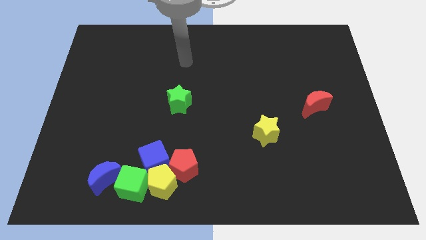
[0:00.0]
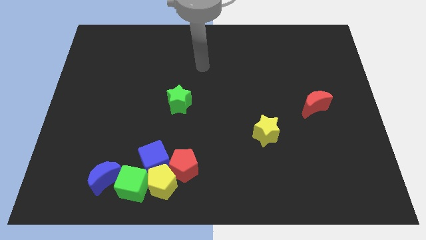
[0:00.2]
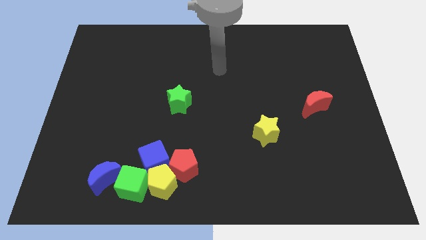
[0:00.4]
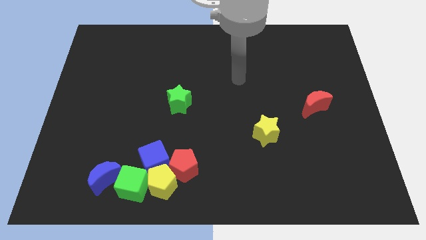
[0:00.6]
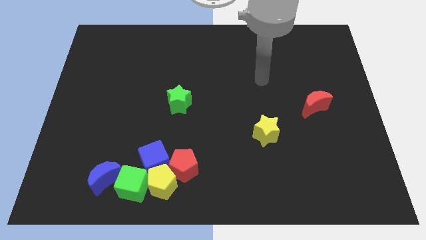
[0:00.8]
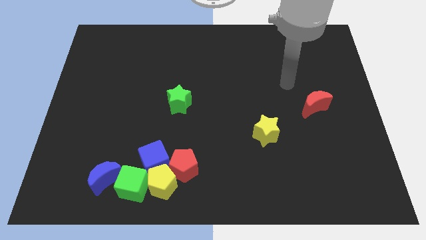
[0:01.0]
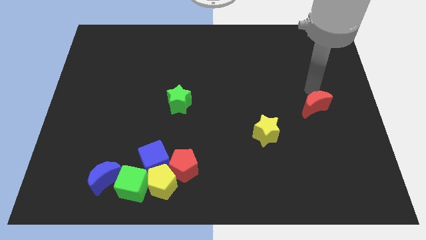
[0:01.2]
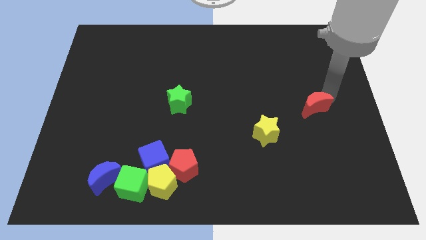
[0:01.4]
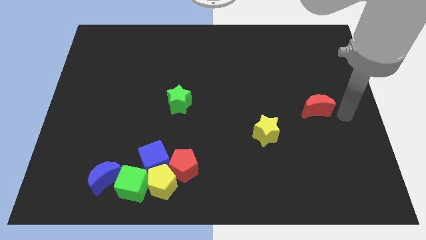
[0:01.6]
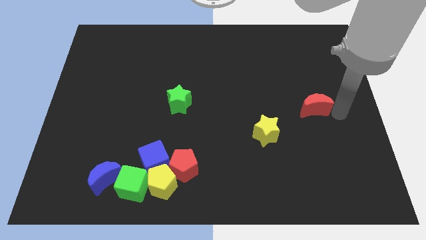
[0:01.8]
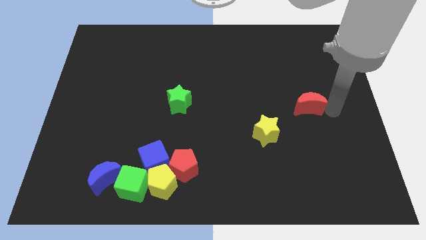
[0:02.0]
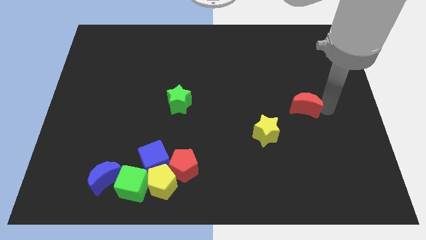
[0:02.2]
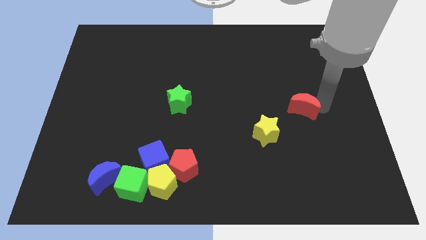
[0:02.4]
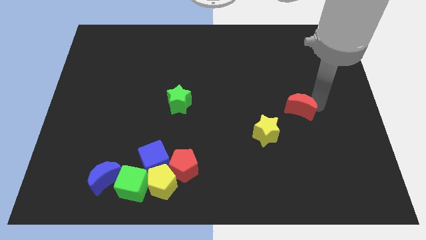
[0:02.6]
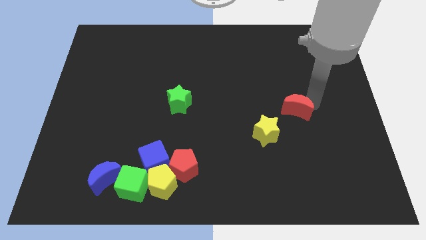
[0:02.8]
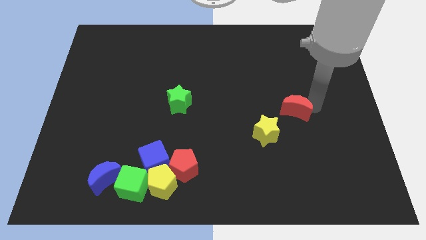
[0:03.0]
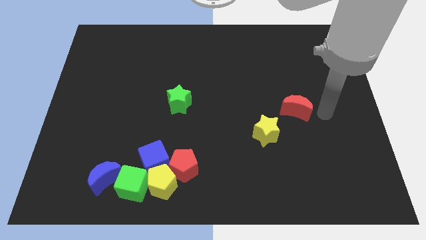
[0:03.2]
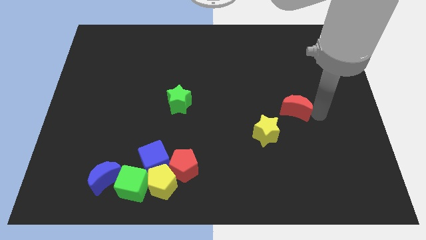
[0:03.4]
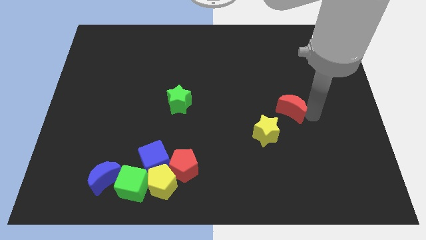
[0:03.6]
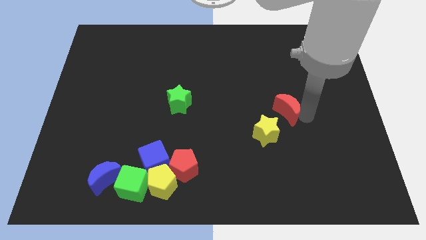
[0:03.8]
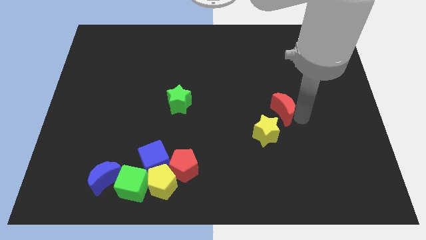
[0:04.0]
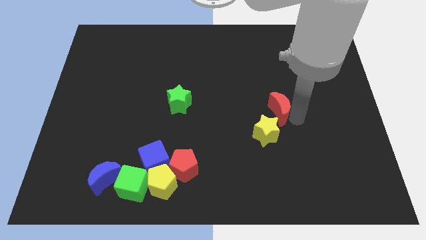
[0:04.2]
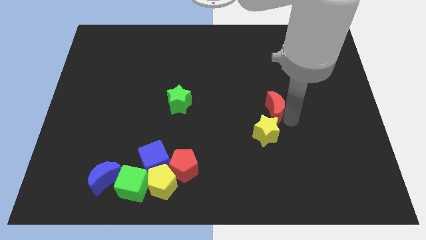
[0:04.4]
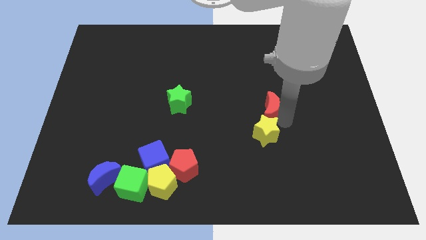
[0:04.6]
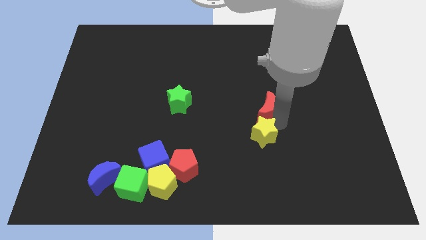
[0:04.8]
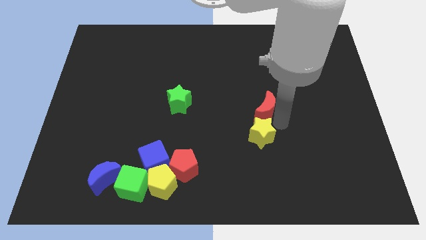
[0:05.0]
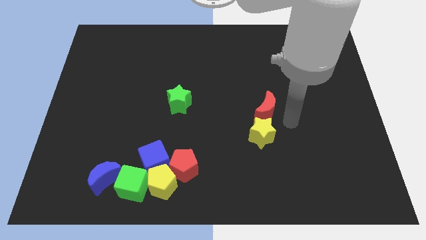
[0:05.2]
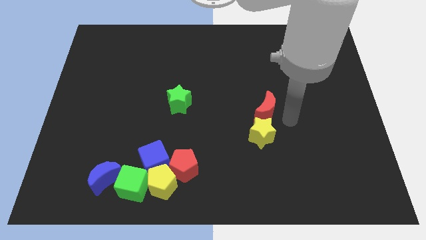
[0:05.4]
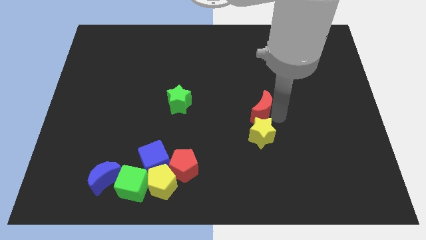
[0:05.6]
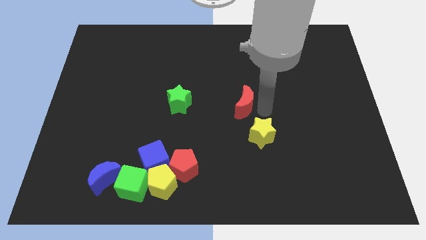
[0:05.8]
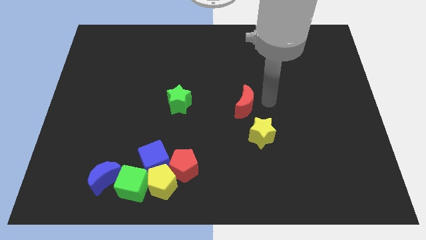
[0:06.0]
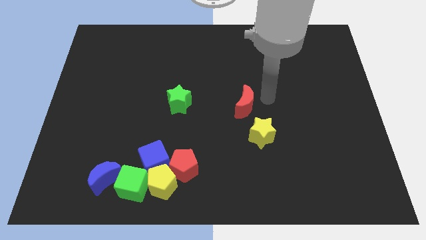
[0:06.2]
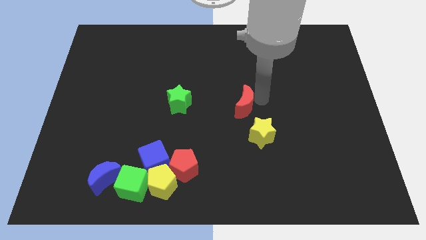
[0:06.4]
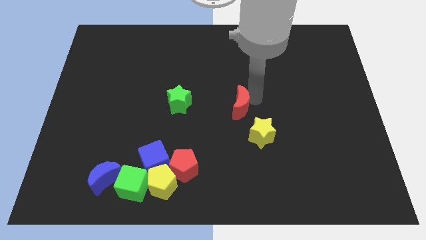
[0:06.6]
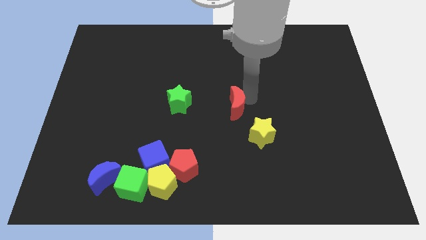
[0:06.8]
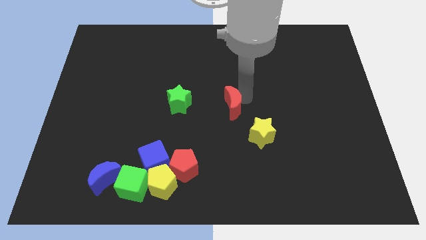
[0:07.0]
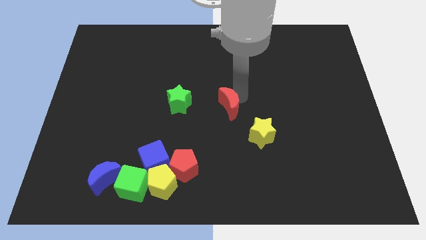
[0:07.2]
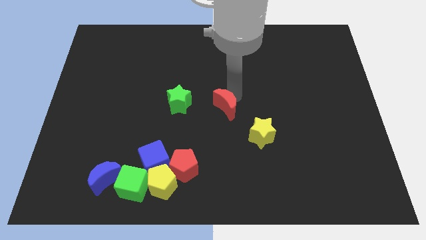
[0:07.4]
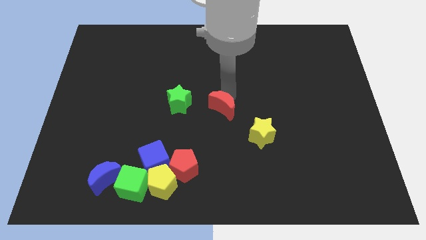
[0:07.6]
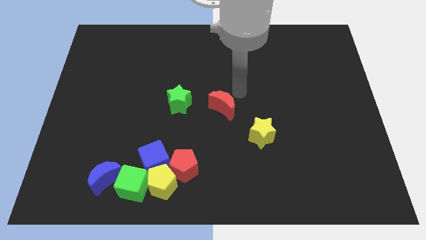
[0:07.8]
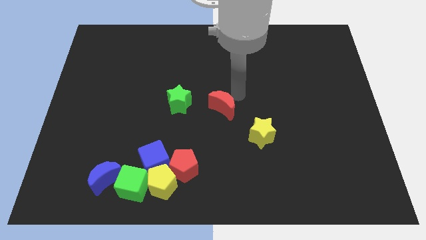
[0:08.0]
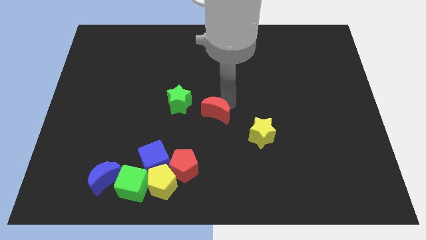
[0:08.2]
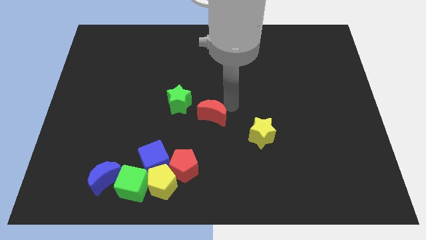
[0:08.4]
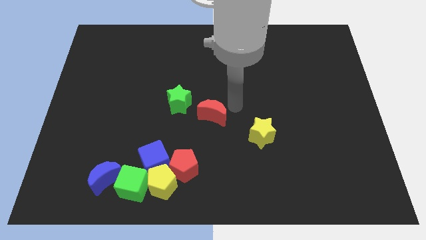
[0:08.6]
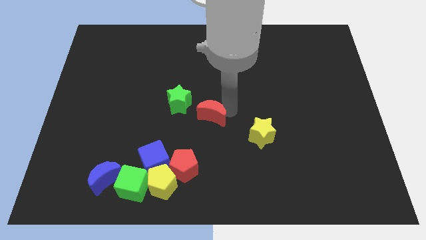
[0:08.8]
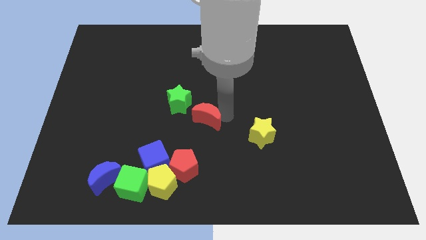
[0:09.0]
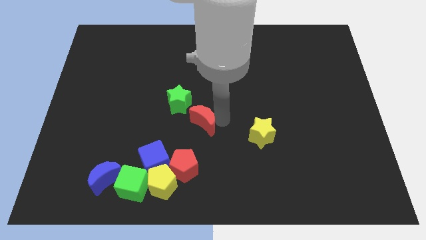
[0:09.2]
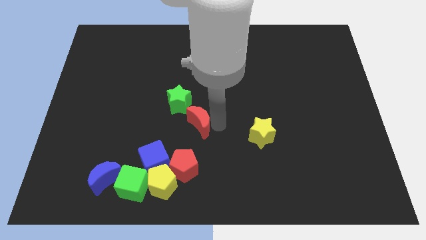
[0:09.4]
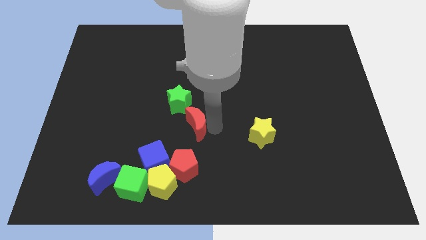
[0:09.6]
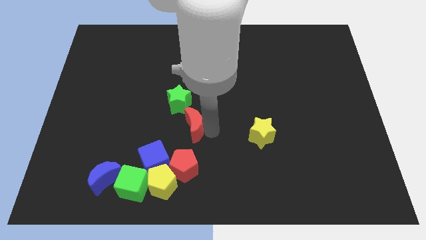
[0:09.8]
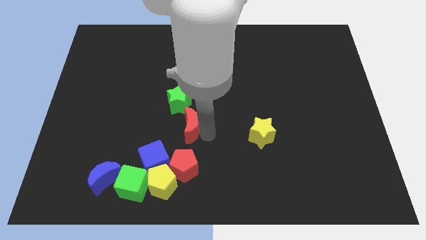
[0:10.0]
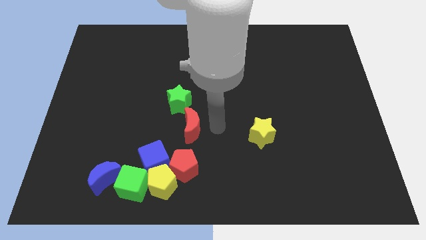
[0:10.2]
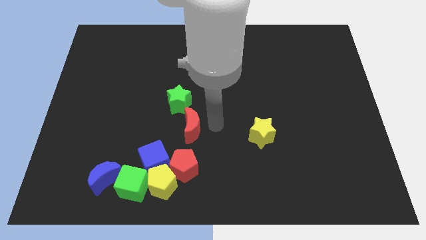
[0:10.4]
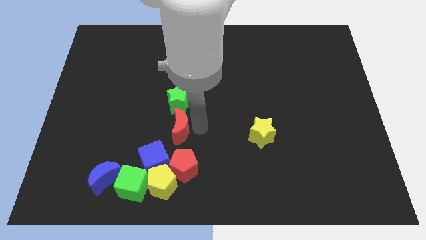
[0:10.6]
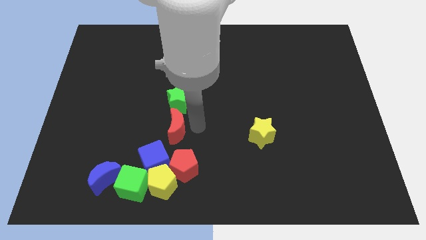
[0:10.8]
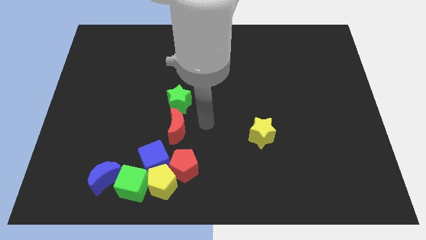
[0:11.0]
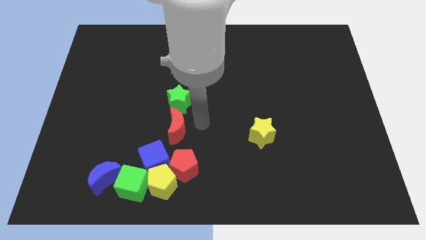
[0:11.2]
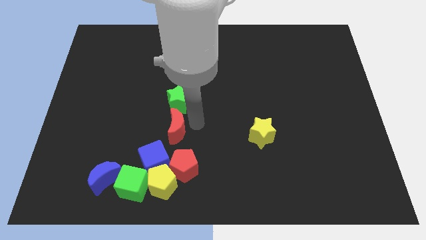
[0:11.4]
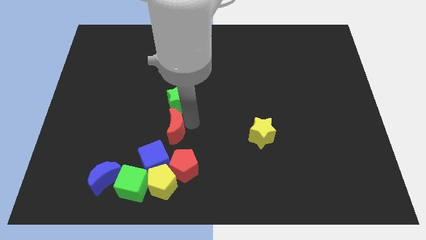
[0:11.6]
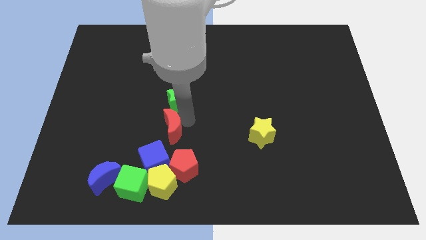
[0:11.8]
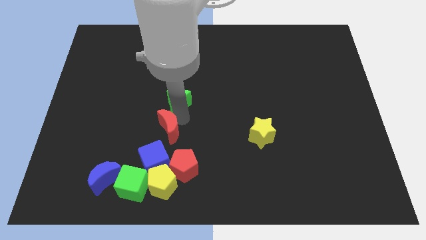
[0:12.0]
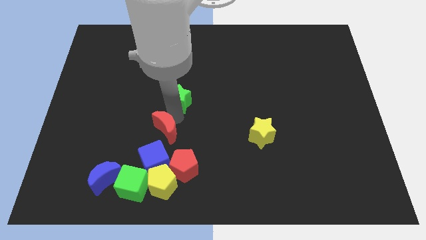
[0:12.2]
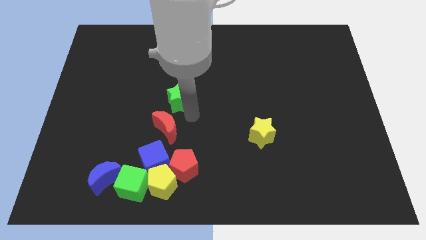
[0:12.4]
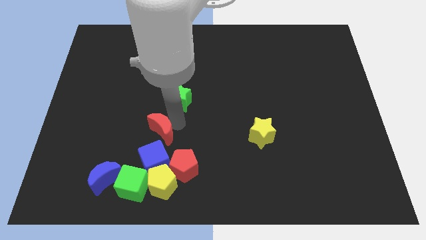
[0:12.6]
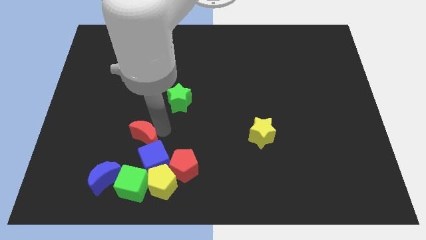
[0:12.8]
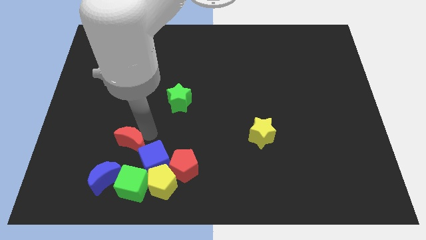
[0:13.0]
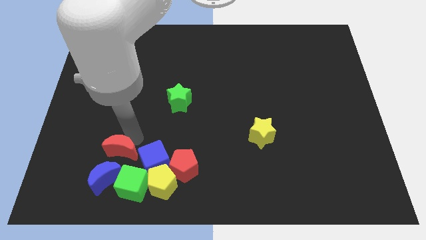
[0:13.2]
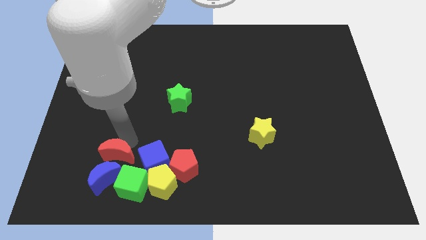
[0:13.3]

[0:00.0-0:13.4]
push the red moon next to the blue moon
